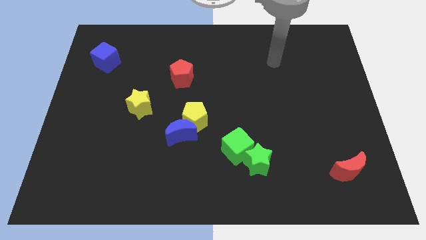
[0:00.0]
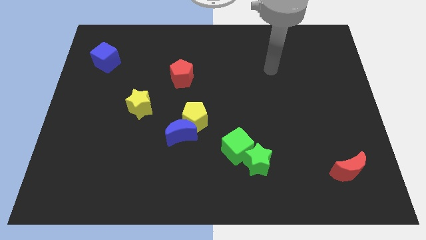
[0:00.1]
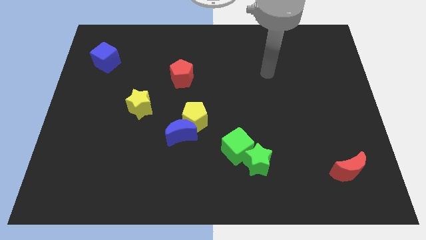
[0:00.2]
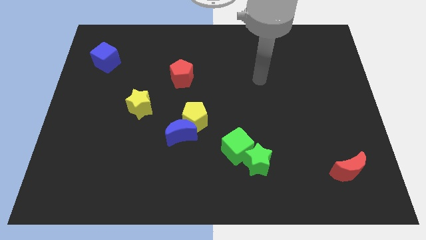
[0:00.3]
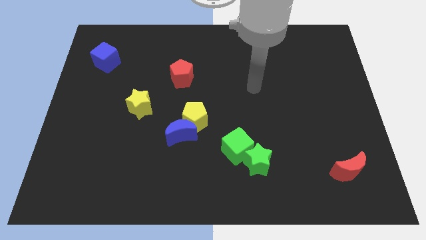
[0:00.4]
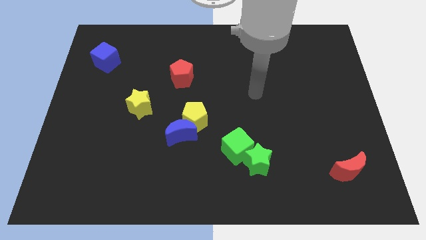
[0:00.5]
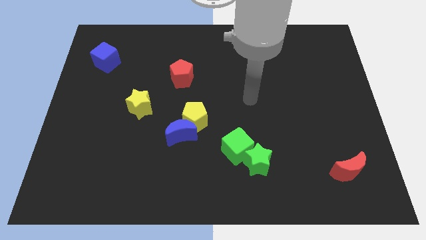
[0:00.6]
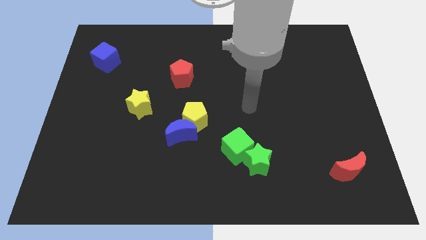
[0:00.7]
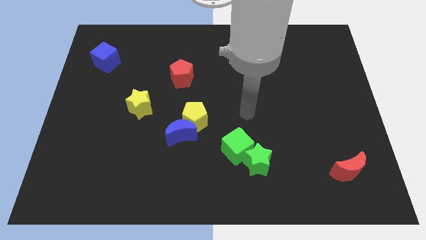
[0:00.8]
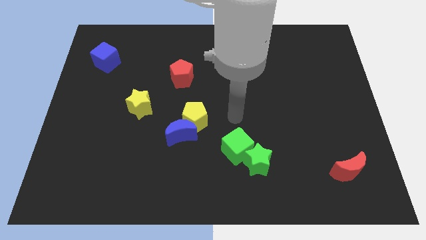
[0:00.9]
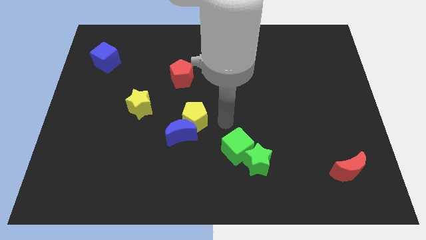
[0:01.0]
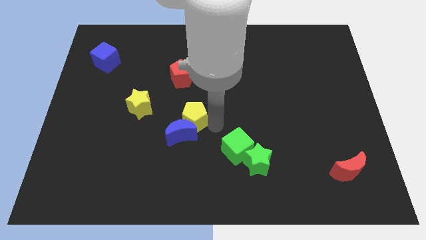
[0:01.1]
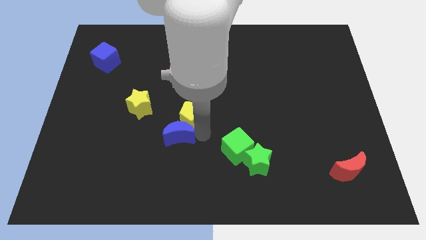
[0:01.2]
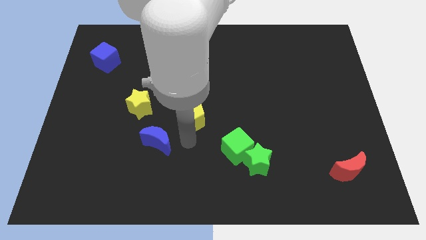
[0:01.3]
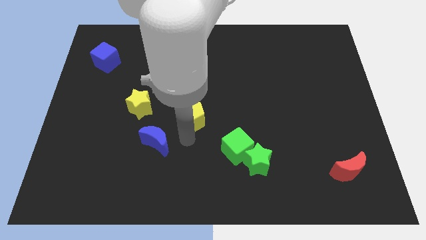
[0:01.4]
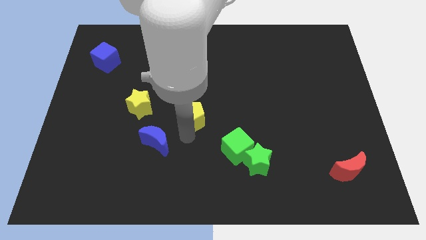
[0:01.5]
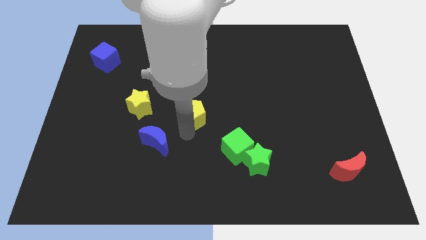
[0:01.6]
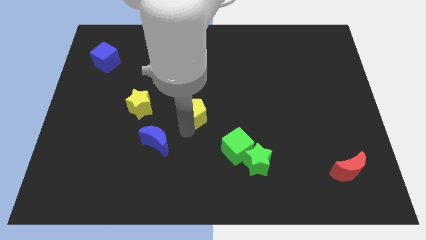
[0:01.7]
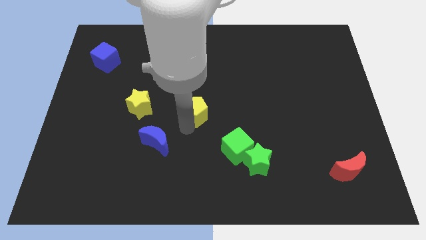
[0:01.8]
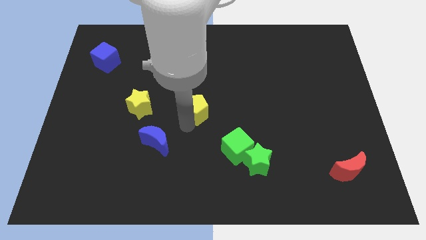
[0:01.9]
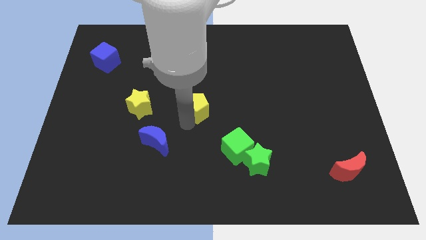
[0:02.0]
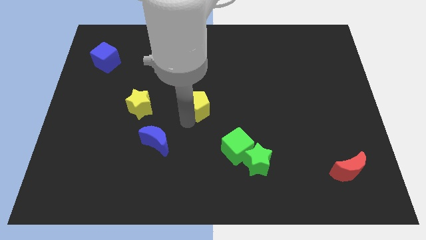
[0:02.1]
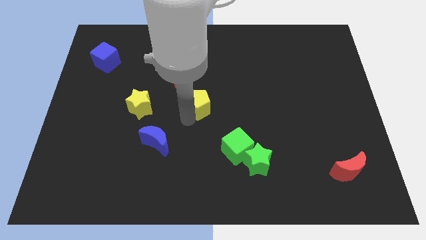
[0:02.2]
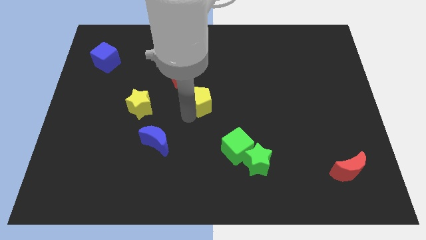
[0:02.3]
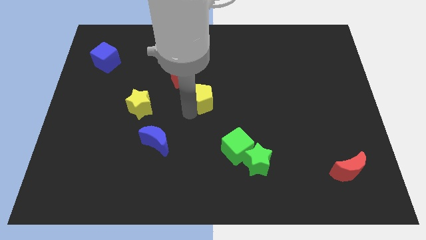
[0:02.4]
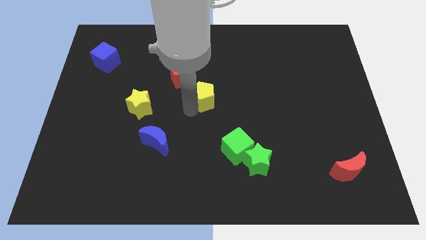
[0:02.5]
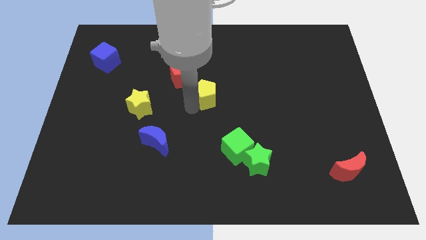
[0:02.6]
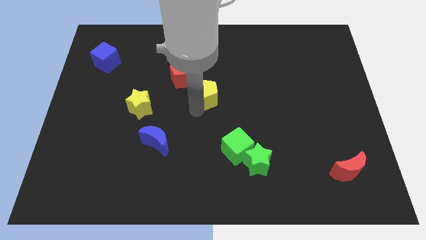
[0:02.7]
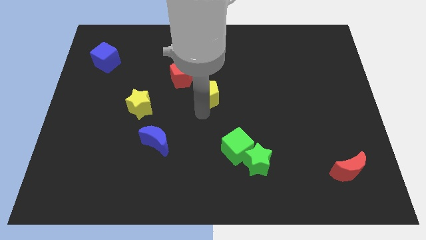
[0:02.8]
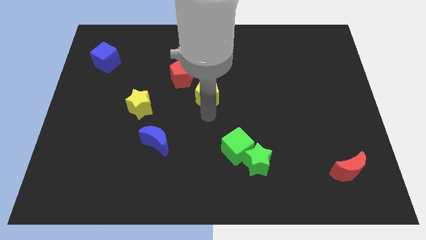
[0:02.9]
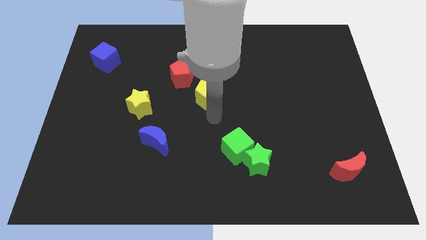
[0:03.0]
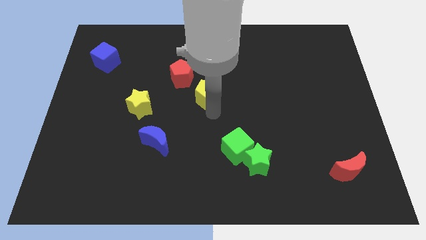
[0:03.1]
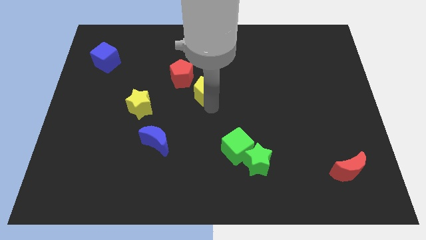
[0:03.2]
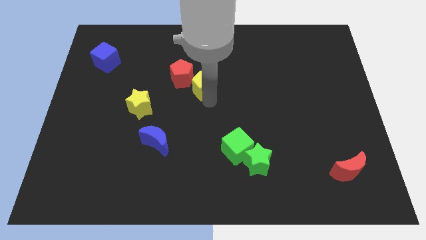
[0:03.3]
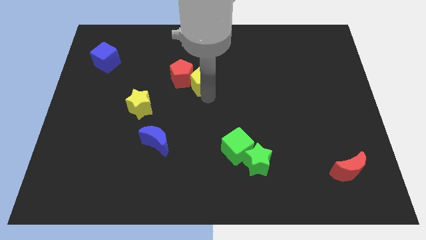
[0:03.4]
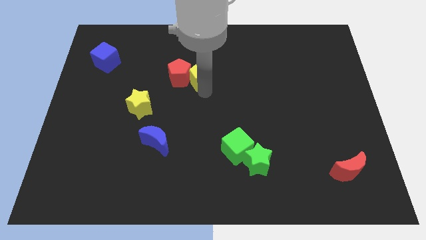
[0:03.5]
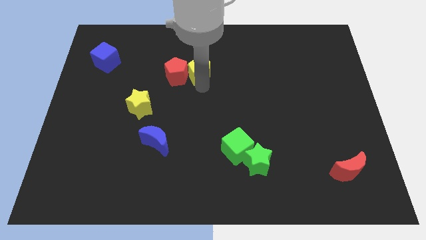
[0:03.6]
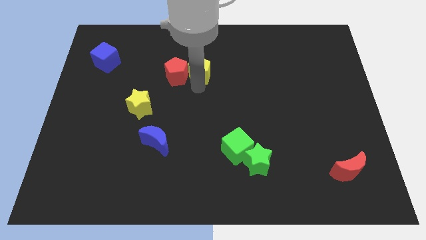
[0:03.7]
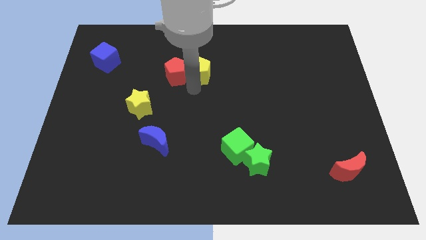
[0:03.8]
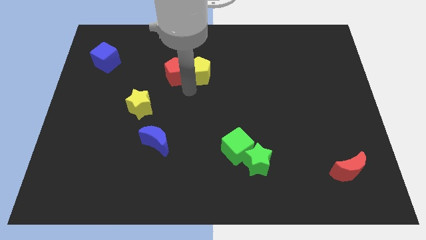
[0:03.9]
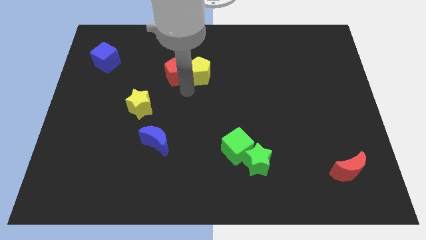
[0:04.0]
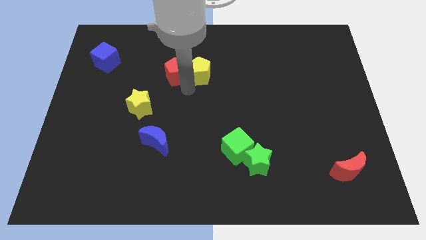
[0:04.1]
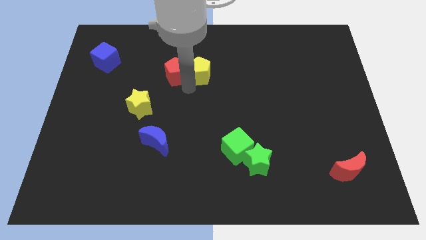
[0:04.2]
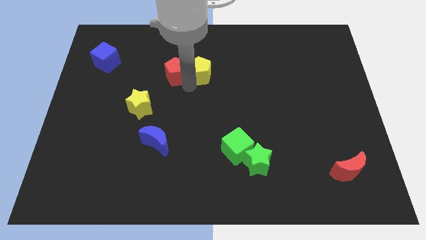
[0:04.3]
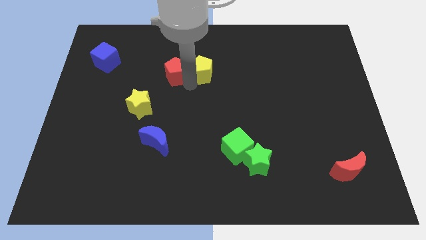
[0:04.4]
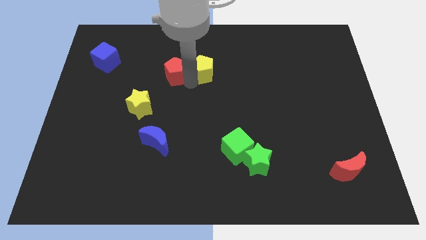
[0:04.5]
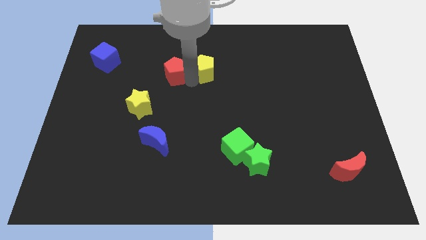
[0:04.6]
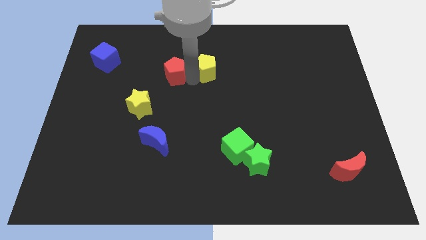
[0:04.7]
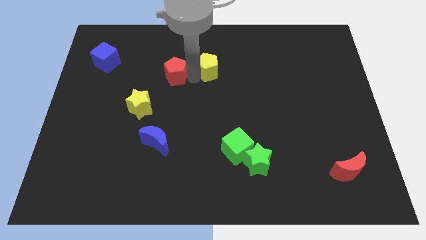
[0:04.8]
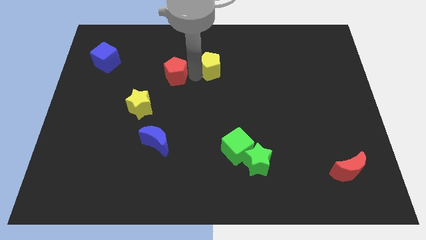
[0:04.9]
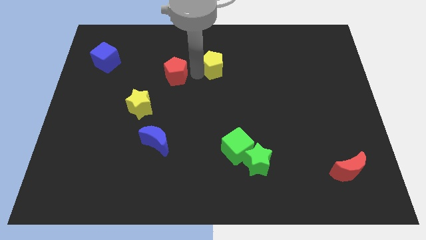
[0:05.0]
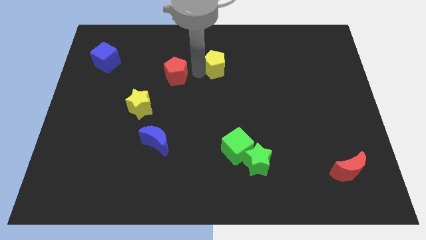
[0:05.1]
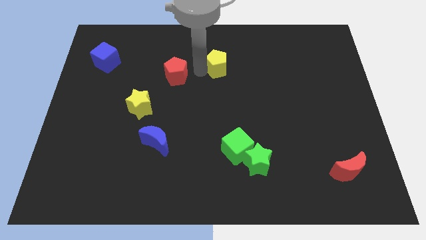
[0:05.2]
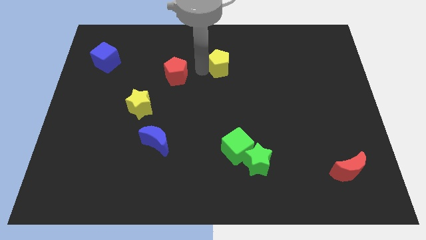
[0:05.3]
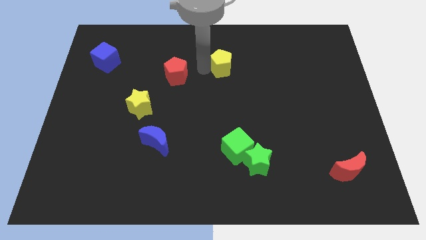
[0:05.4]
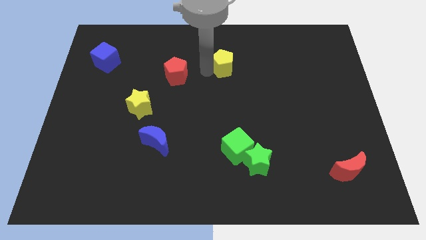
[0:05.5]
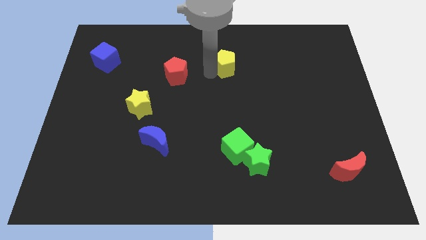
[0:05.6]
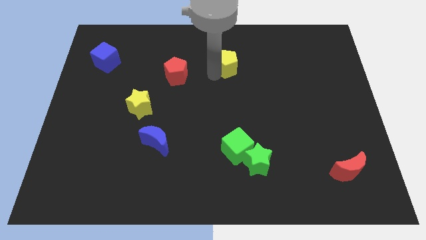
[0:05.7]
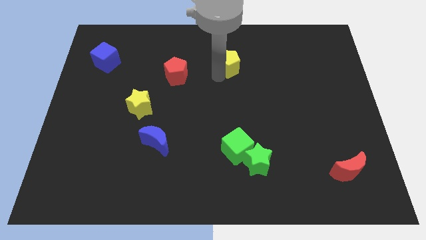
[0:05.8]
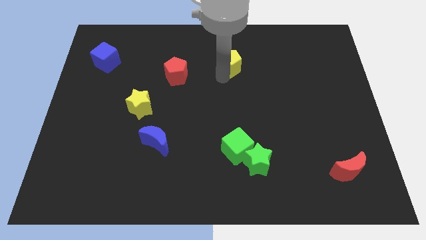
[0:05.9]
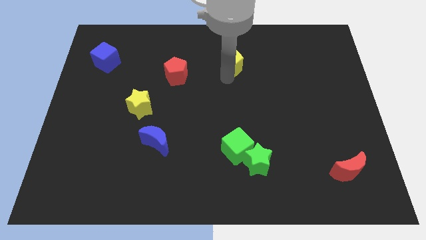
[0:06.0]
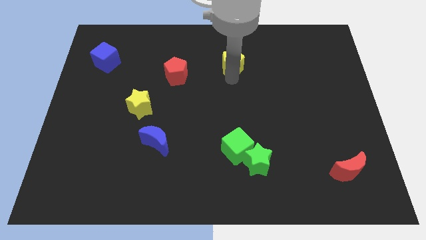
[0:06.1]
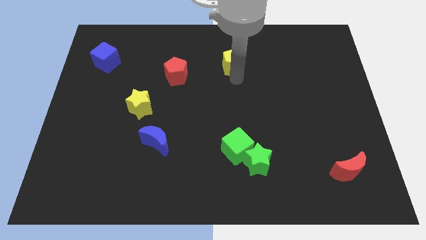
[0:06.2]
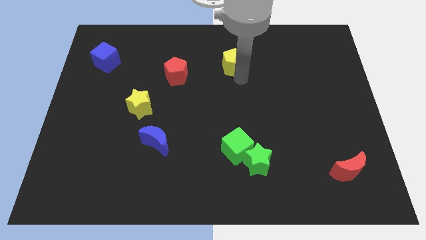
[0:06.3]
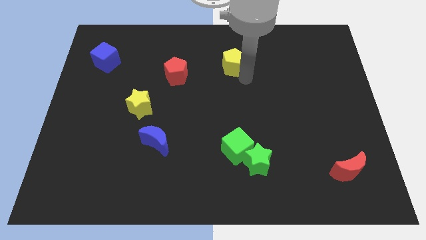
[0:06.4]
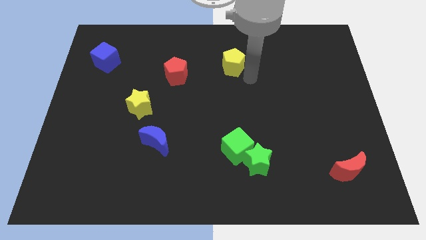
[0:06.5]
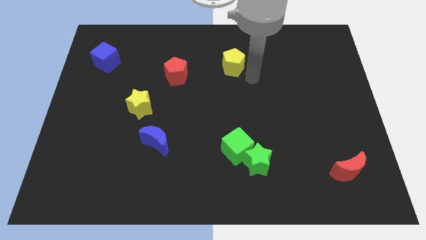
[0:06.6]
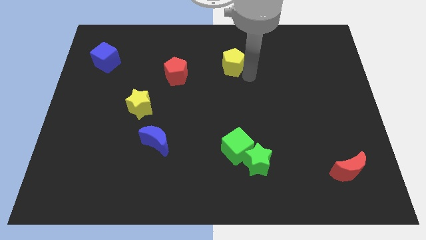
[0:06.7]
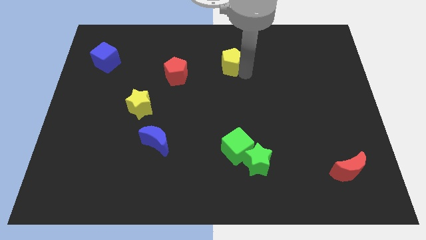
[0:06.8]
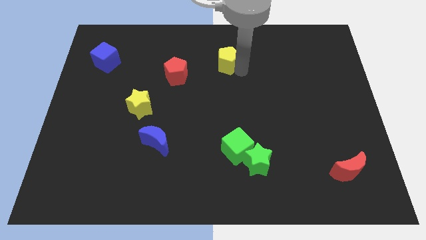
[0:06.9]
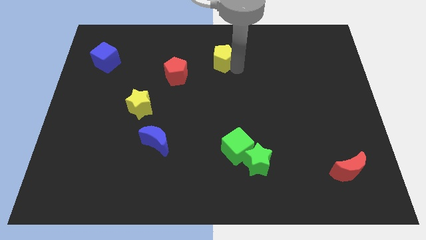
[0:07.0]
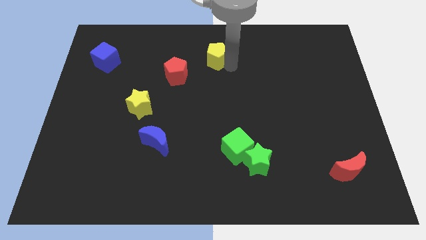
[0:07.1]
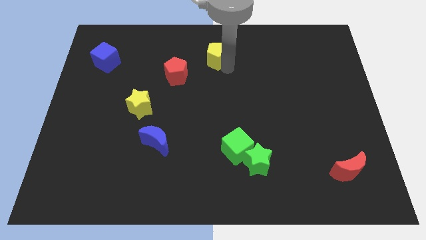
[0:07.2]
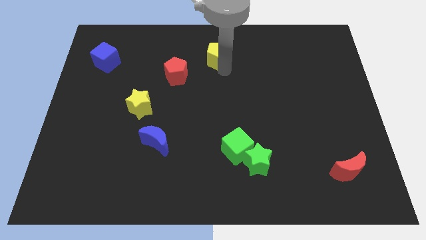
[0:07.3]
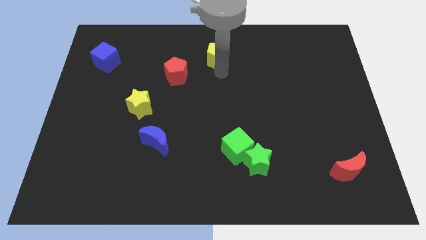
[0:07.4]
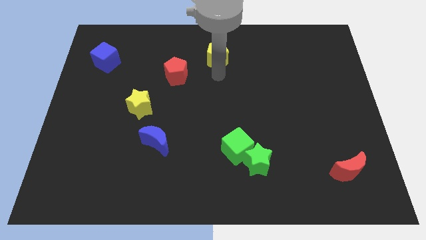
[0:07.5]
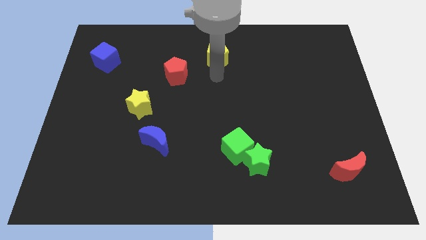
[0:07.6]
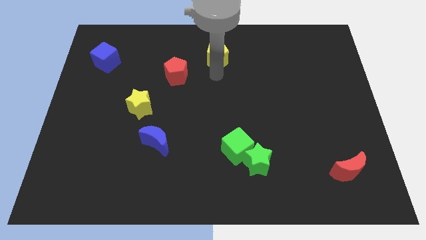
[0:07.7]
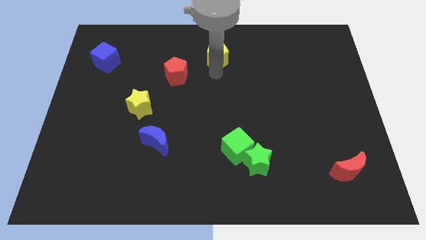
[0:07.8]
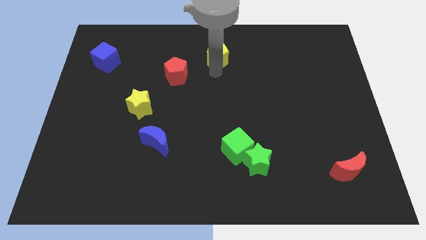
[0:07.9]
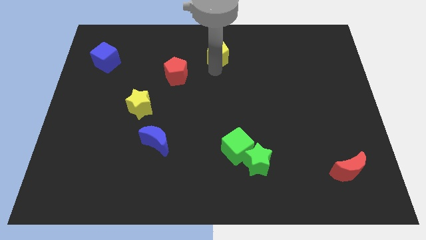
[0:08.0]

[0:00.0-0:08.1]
move the yellow pentagon to the towards your base

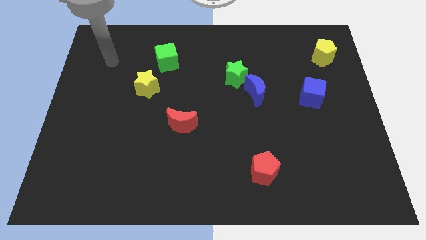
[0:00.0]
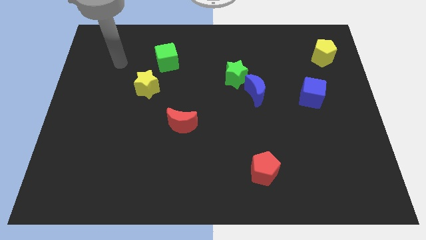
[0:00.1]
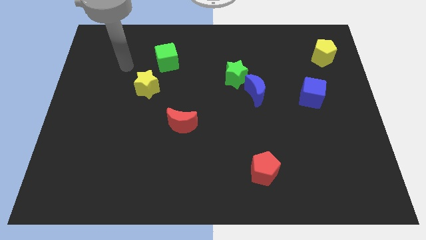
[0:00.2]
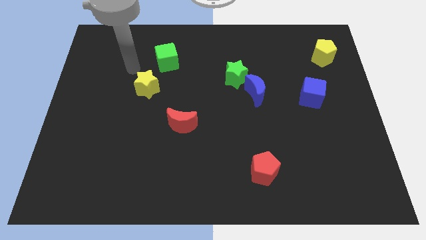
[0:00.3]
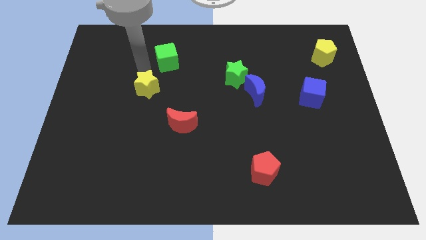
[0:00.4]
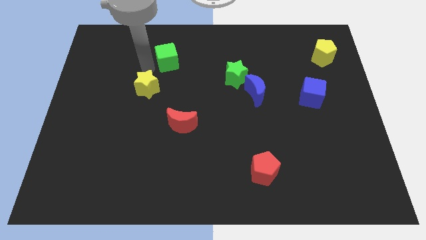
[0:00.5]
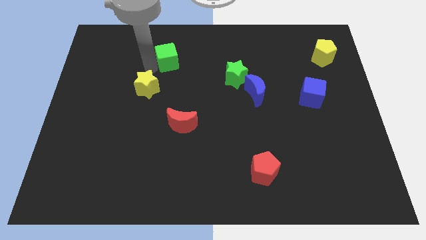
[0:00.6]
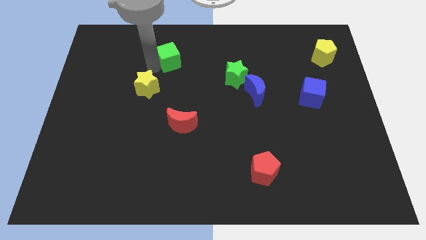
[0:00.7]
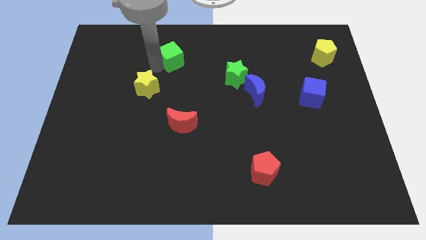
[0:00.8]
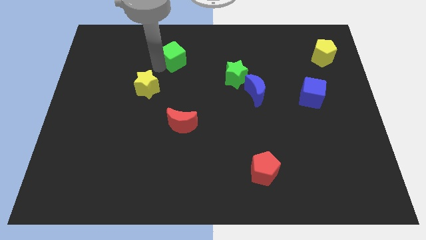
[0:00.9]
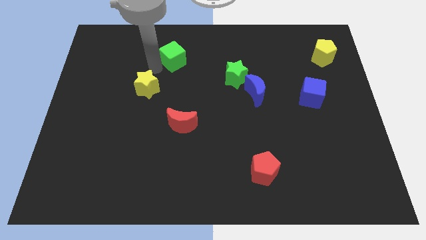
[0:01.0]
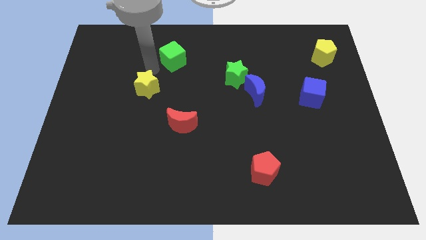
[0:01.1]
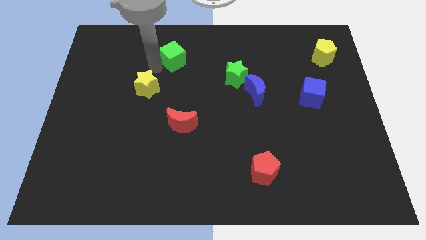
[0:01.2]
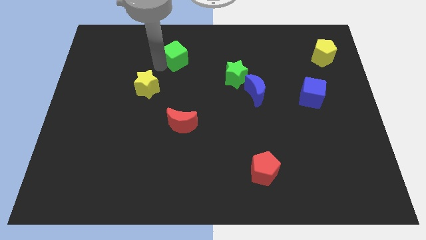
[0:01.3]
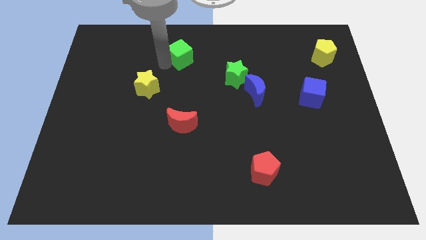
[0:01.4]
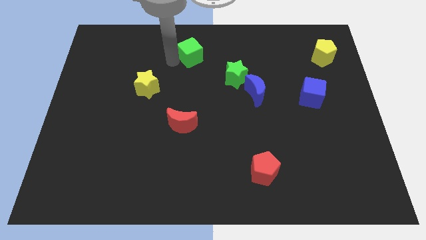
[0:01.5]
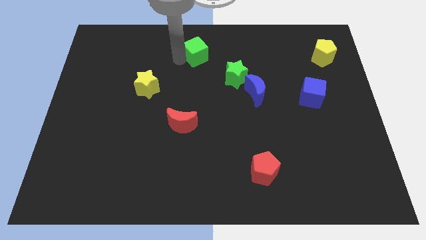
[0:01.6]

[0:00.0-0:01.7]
put the green cube to the top
